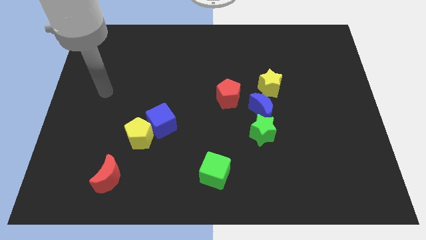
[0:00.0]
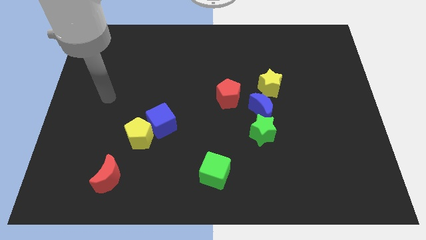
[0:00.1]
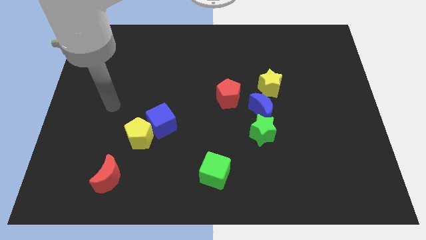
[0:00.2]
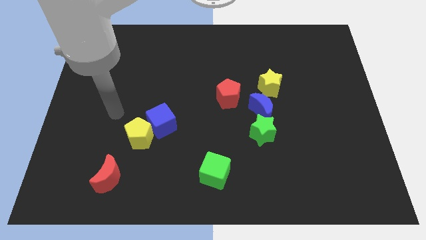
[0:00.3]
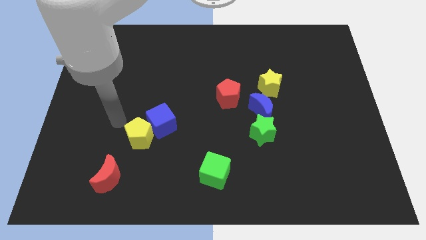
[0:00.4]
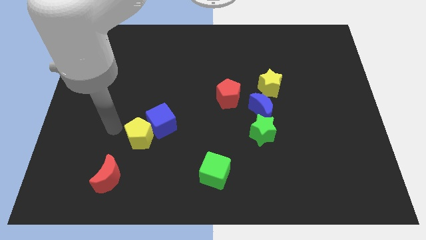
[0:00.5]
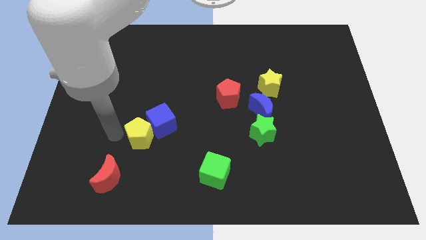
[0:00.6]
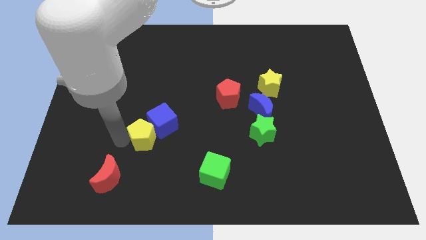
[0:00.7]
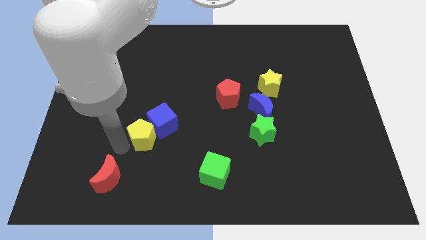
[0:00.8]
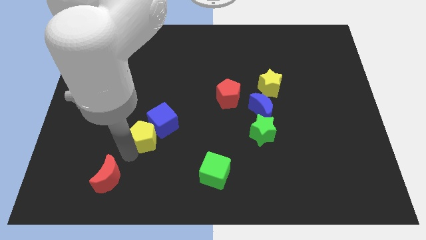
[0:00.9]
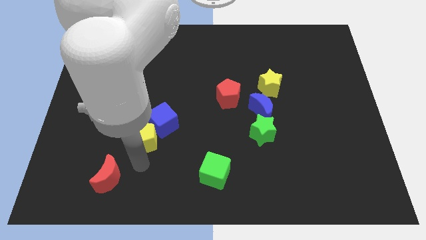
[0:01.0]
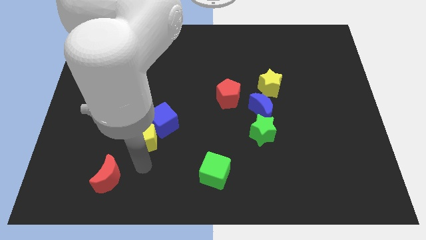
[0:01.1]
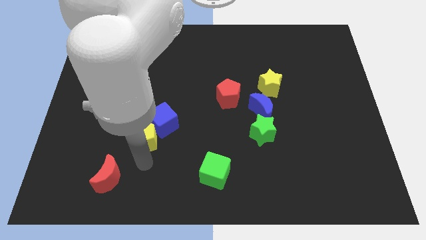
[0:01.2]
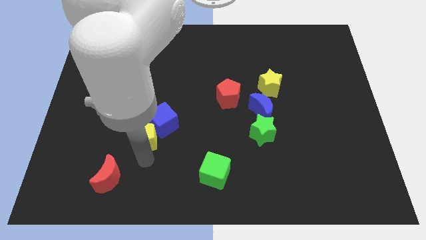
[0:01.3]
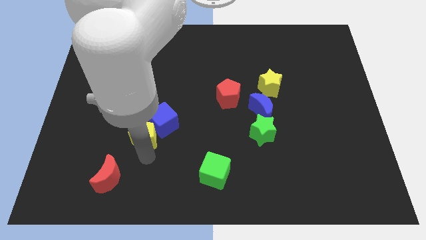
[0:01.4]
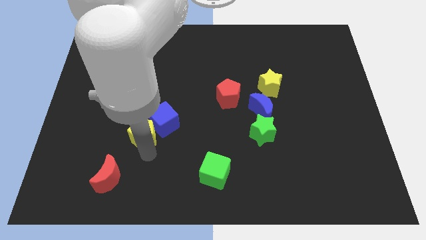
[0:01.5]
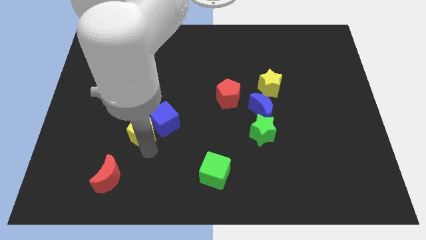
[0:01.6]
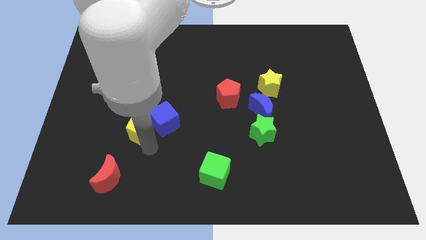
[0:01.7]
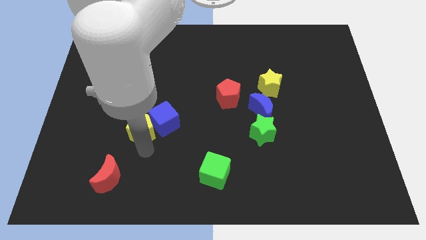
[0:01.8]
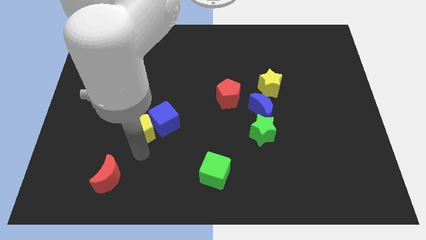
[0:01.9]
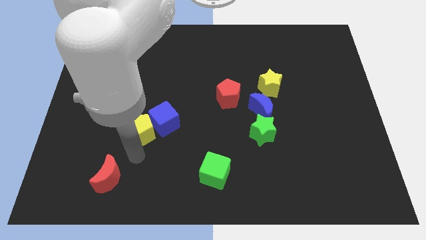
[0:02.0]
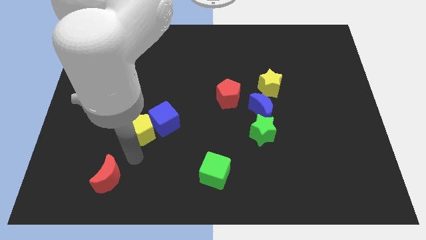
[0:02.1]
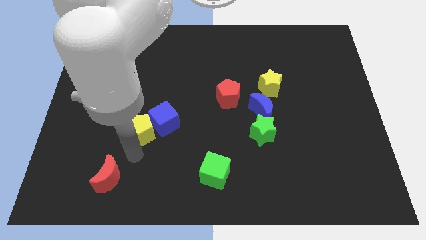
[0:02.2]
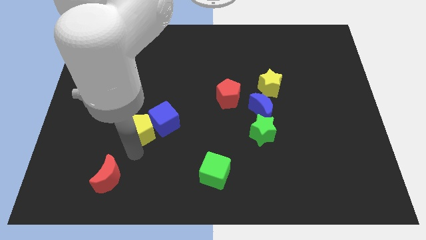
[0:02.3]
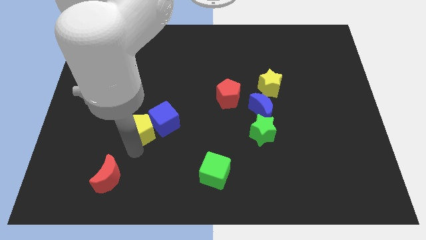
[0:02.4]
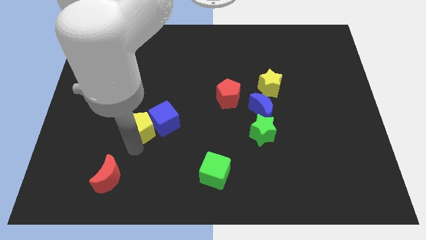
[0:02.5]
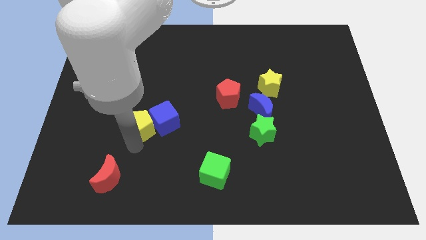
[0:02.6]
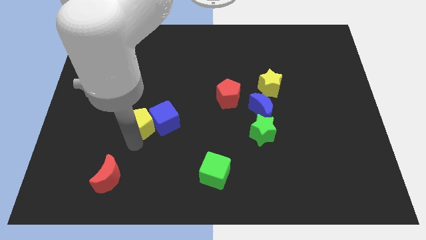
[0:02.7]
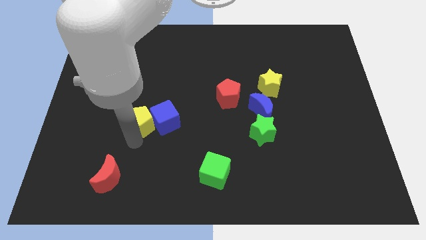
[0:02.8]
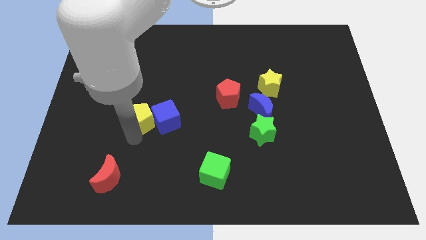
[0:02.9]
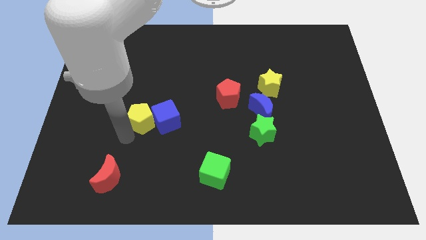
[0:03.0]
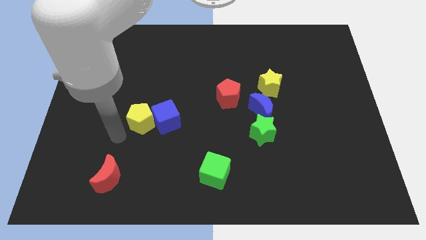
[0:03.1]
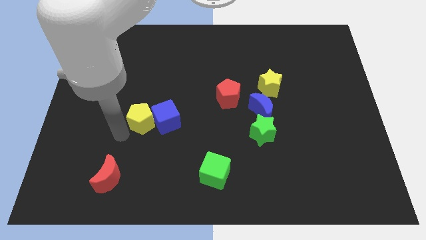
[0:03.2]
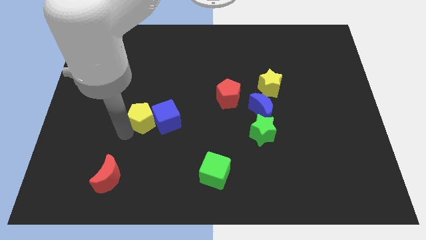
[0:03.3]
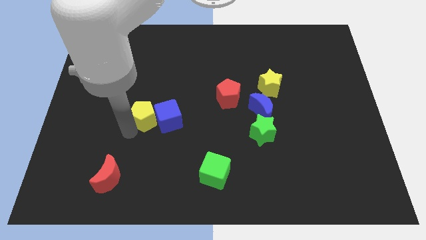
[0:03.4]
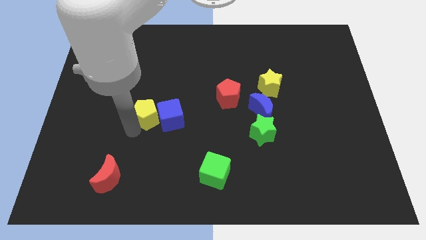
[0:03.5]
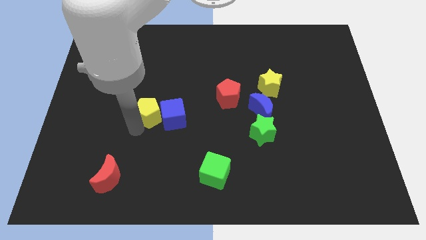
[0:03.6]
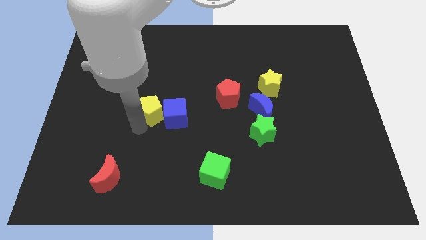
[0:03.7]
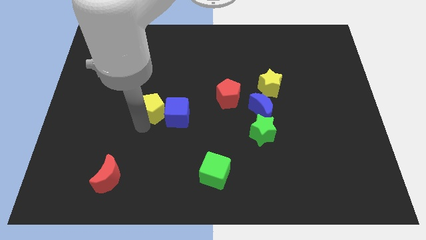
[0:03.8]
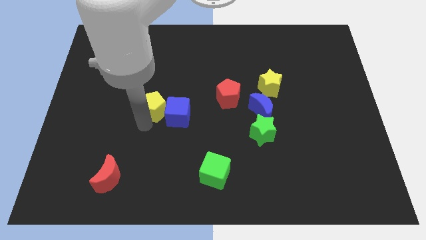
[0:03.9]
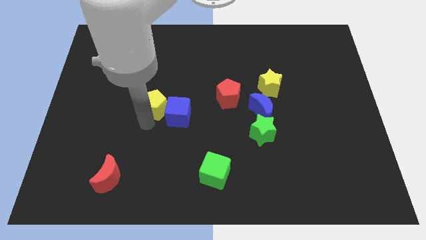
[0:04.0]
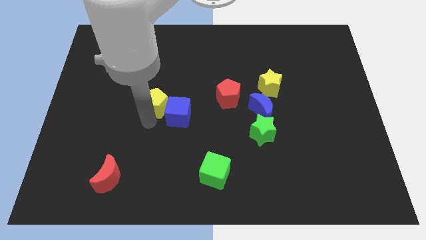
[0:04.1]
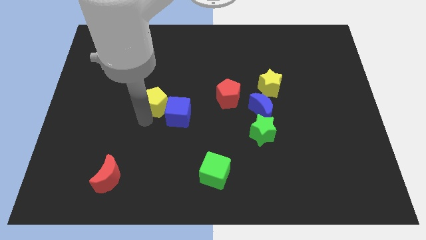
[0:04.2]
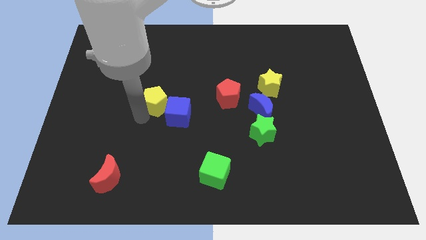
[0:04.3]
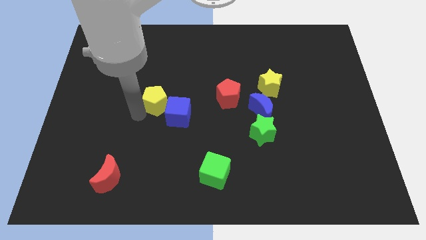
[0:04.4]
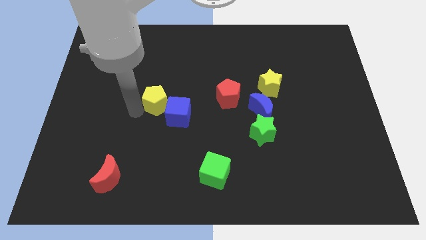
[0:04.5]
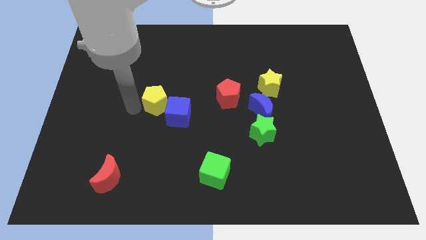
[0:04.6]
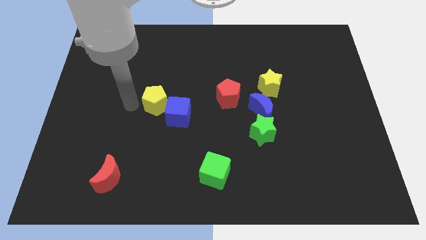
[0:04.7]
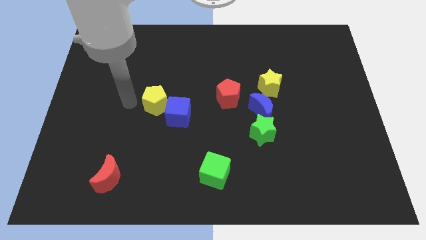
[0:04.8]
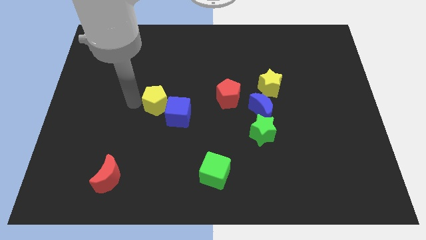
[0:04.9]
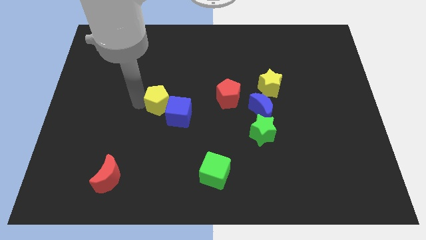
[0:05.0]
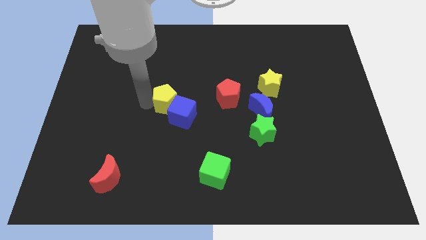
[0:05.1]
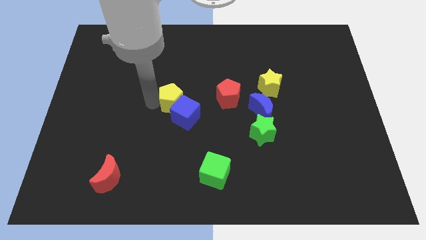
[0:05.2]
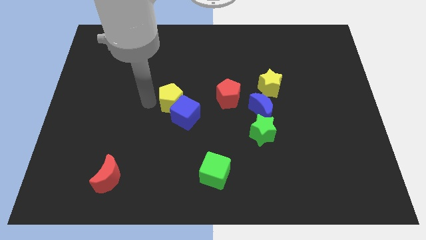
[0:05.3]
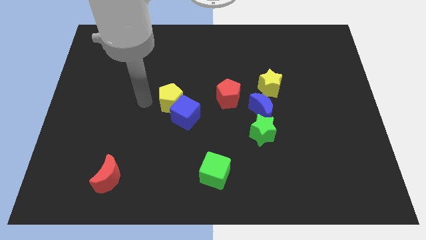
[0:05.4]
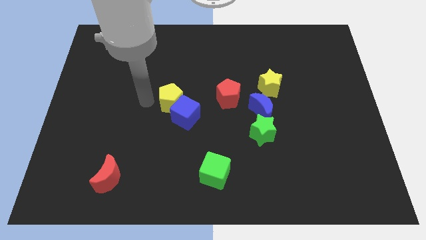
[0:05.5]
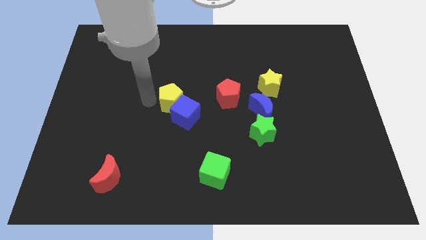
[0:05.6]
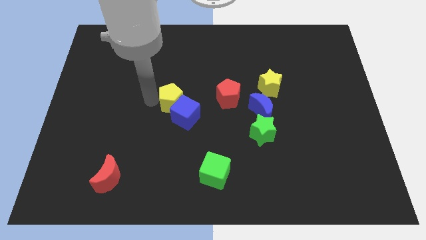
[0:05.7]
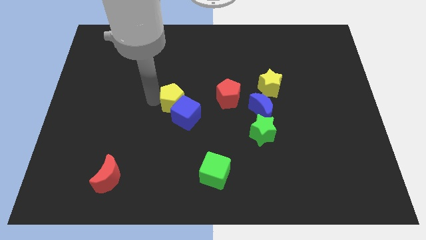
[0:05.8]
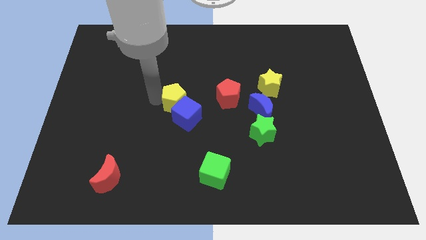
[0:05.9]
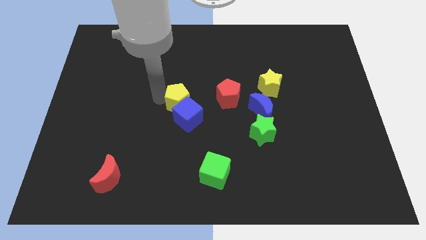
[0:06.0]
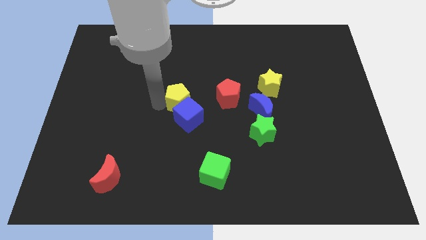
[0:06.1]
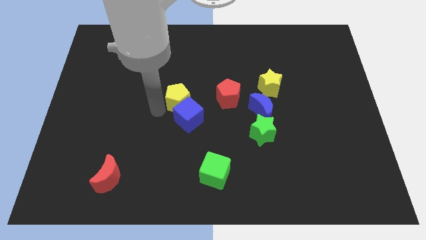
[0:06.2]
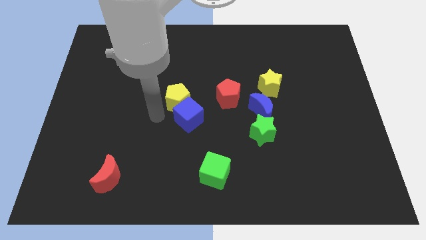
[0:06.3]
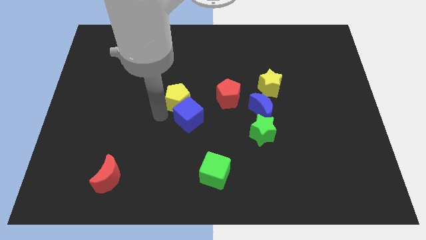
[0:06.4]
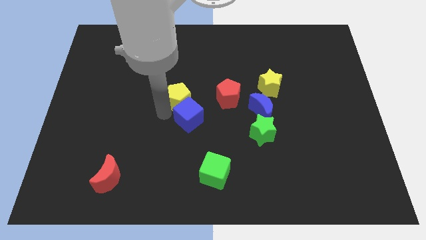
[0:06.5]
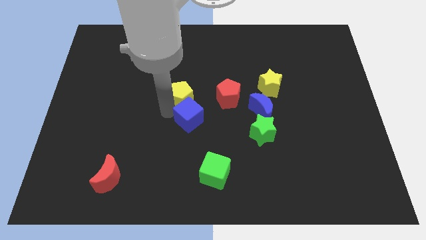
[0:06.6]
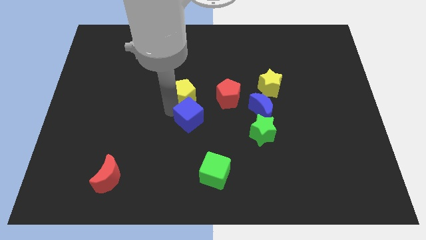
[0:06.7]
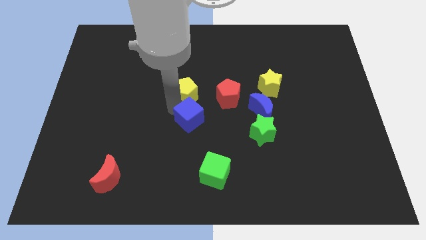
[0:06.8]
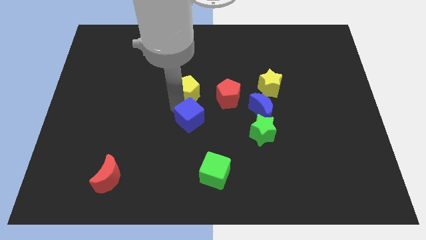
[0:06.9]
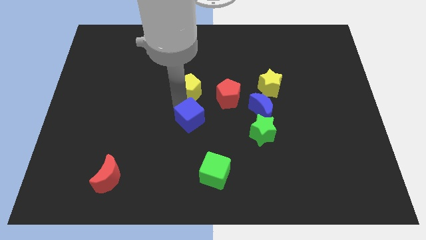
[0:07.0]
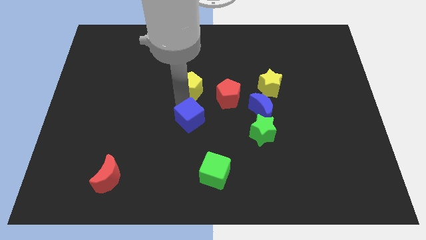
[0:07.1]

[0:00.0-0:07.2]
push the yellow pentagon to the top left side of the red pentagon

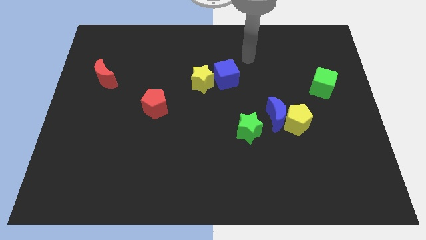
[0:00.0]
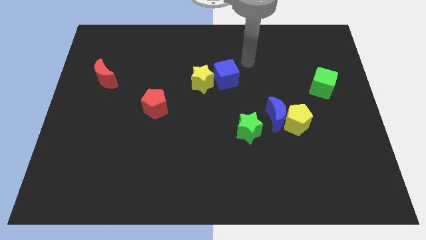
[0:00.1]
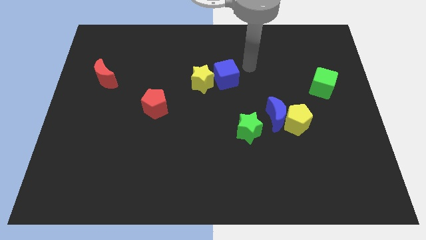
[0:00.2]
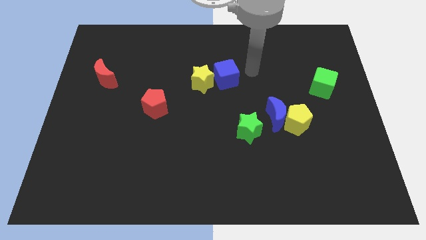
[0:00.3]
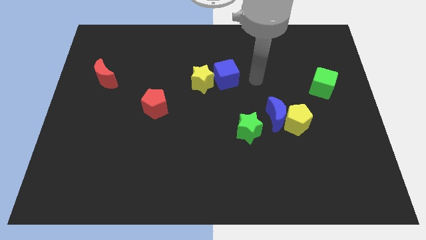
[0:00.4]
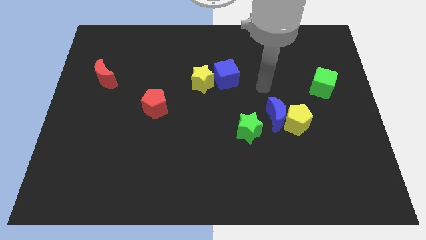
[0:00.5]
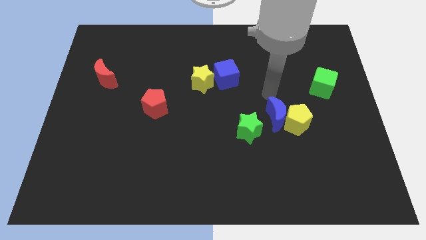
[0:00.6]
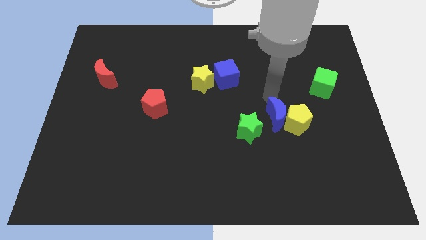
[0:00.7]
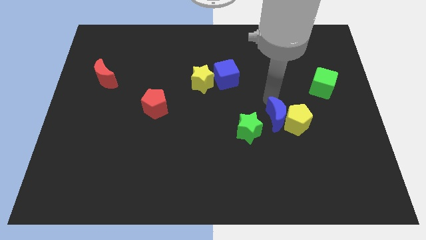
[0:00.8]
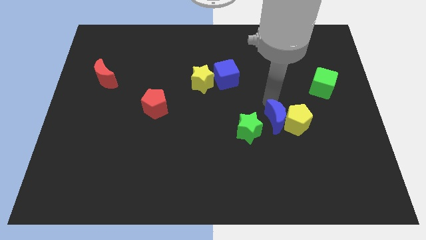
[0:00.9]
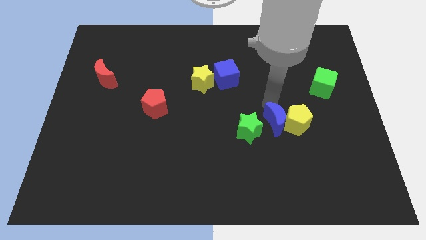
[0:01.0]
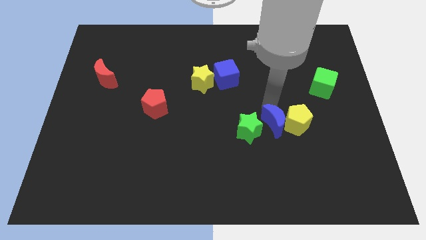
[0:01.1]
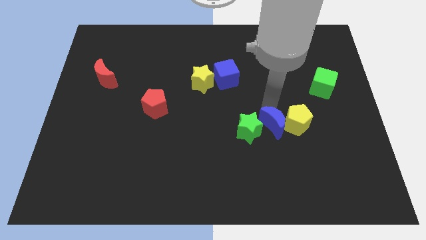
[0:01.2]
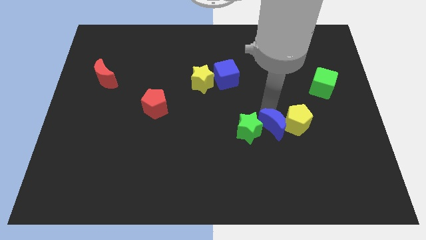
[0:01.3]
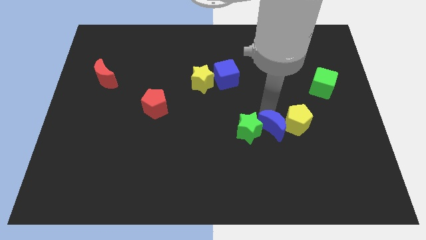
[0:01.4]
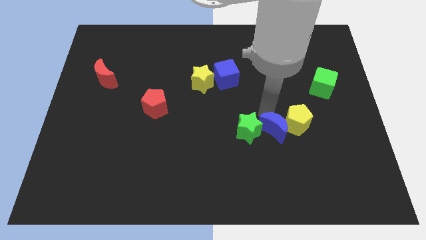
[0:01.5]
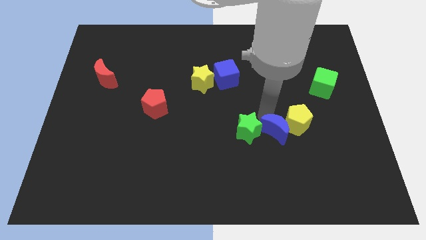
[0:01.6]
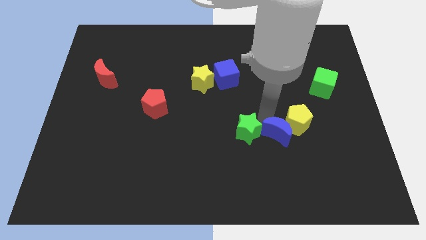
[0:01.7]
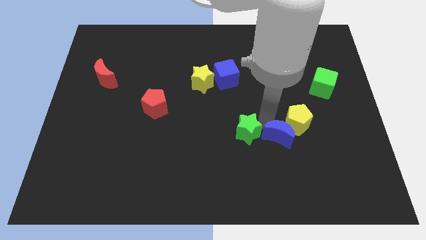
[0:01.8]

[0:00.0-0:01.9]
put the blue moon to the bottom side of the yellow pentagon
